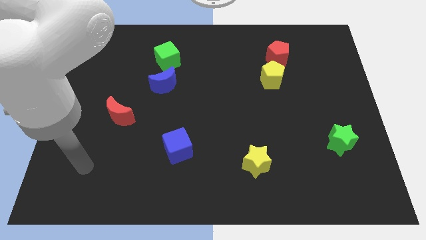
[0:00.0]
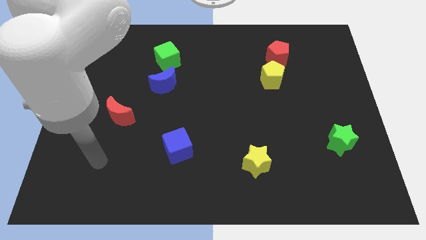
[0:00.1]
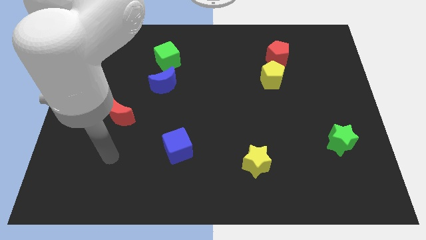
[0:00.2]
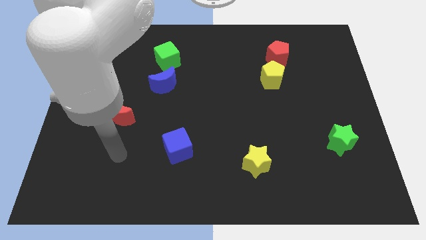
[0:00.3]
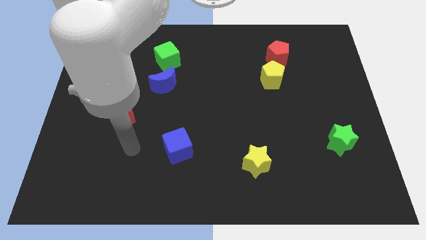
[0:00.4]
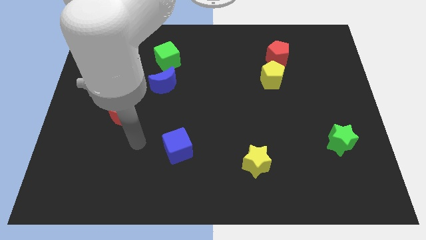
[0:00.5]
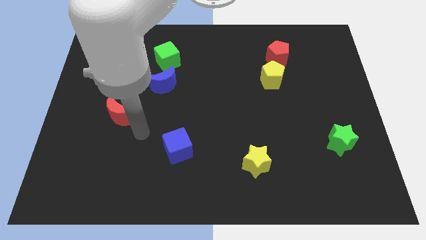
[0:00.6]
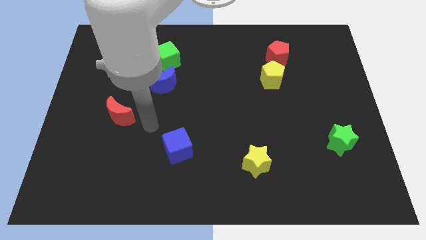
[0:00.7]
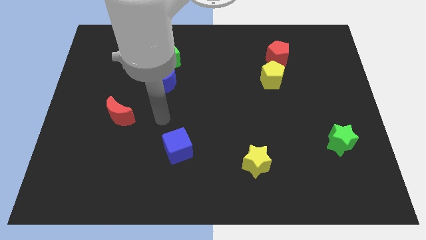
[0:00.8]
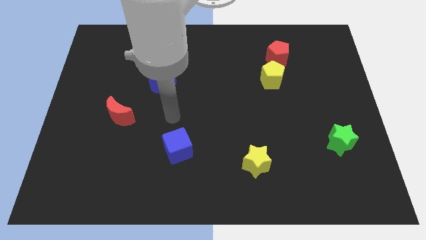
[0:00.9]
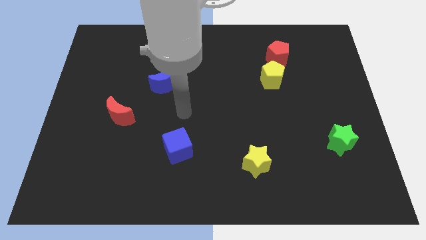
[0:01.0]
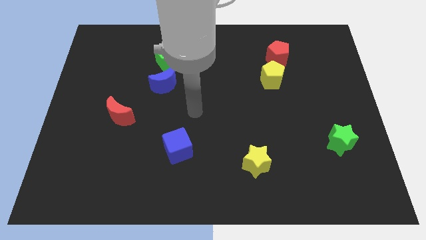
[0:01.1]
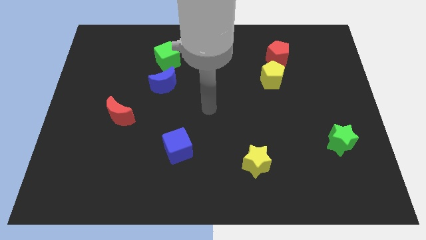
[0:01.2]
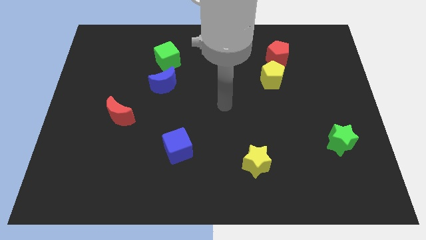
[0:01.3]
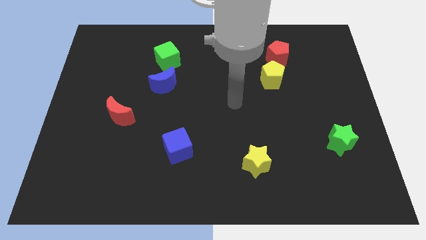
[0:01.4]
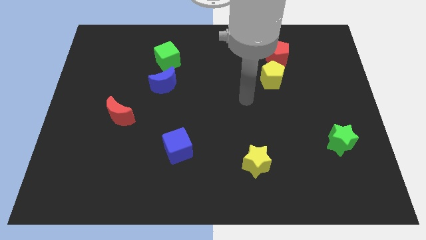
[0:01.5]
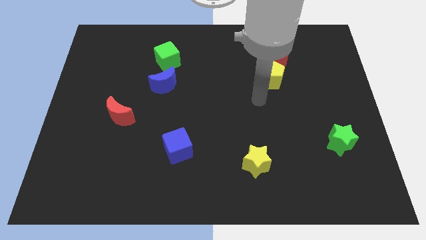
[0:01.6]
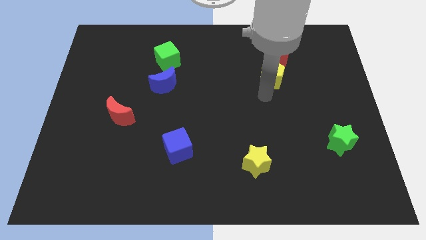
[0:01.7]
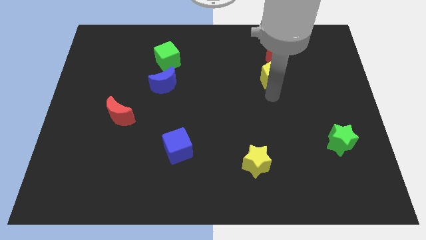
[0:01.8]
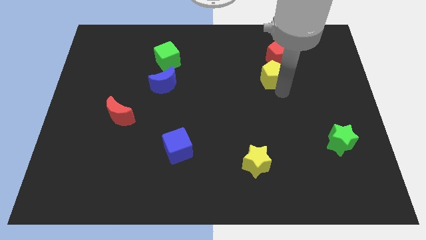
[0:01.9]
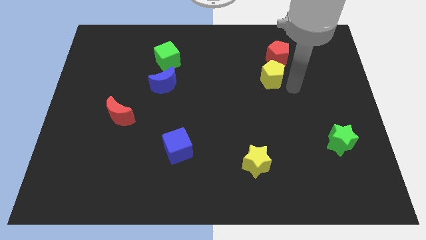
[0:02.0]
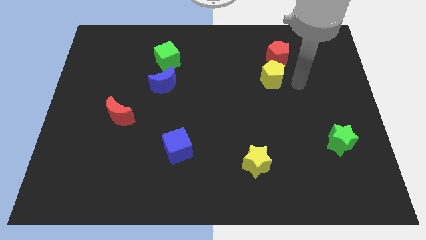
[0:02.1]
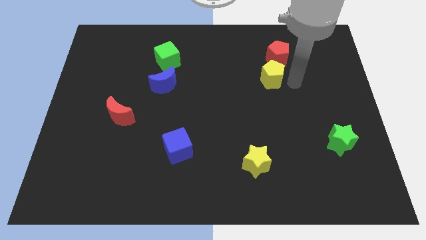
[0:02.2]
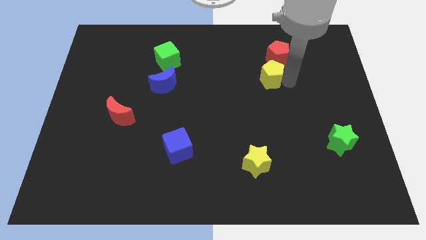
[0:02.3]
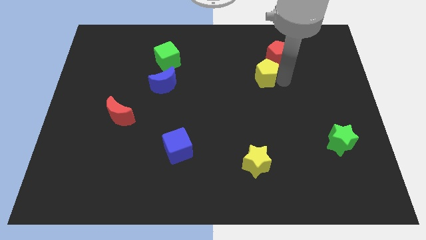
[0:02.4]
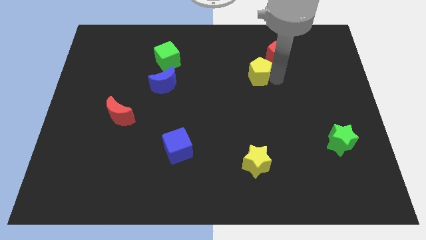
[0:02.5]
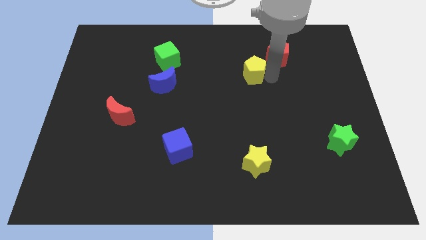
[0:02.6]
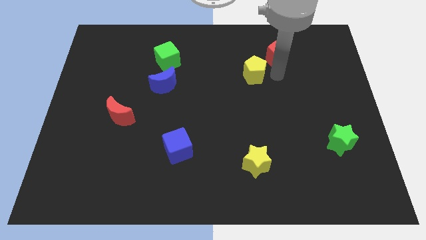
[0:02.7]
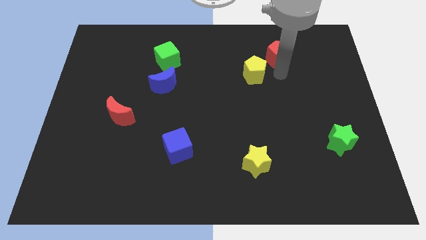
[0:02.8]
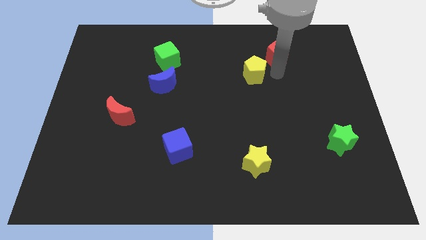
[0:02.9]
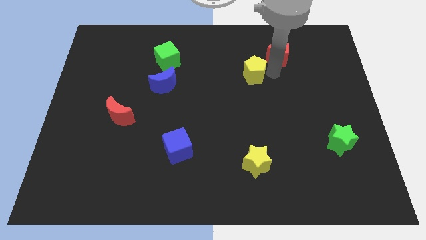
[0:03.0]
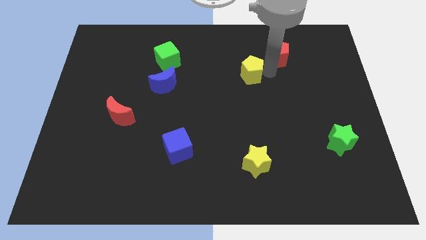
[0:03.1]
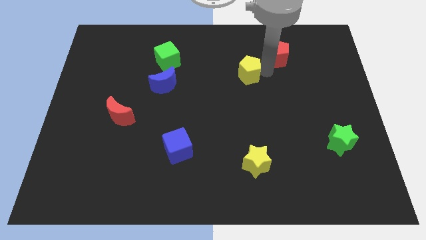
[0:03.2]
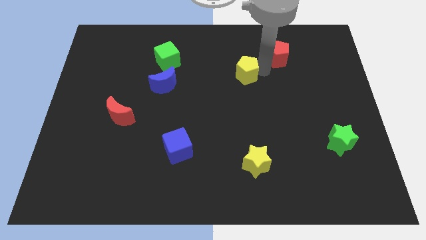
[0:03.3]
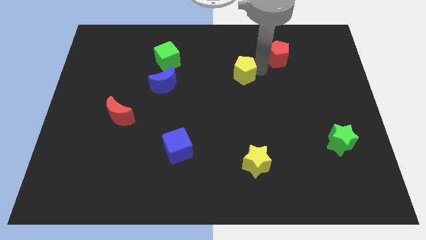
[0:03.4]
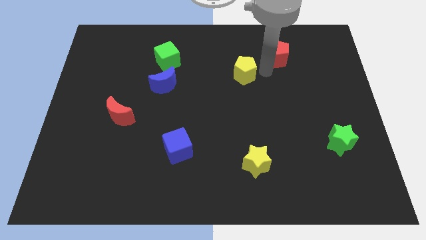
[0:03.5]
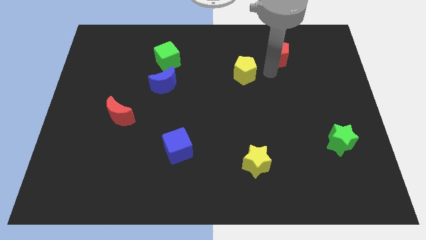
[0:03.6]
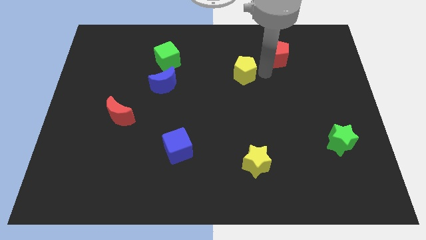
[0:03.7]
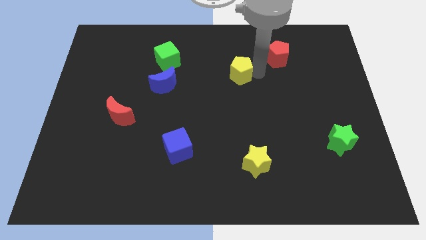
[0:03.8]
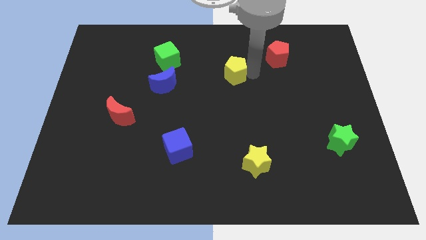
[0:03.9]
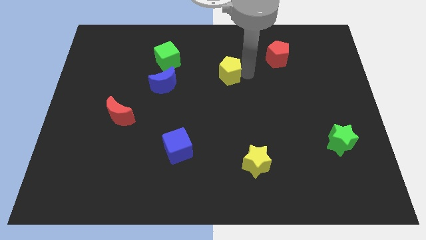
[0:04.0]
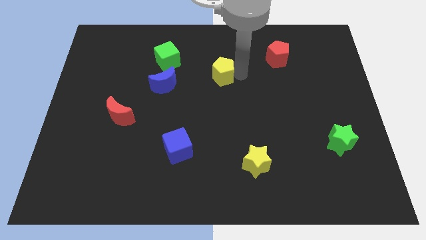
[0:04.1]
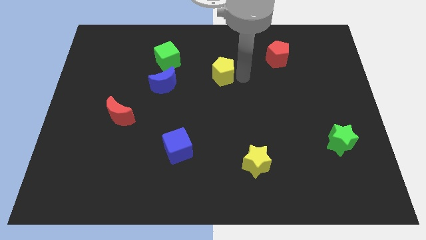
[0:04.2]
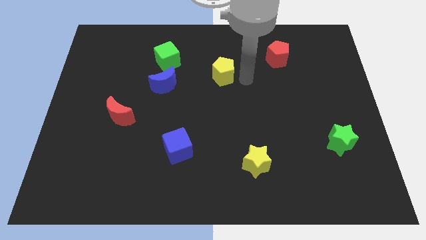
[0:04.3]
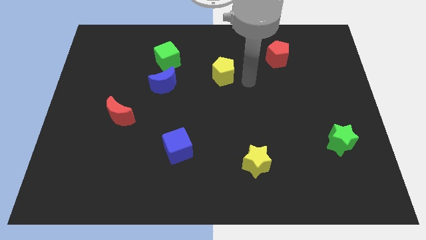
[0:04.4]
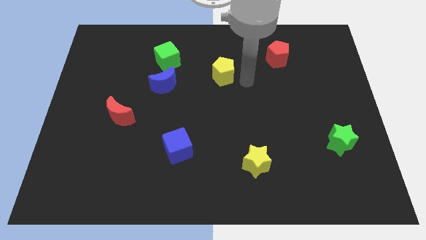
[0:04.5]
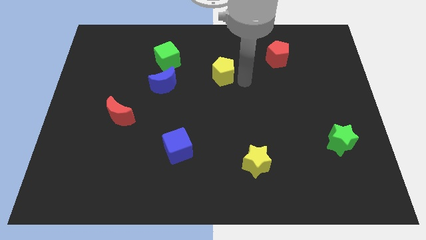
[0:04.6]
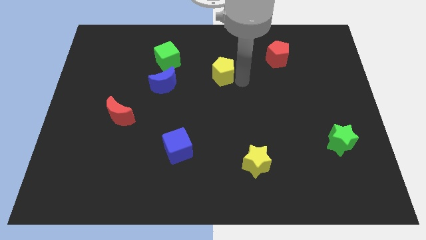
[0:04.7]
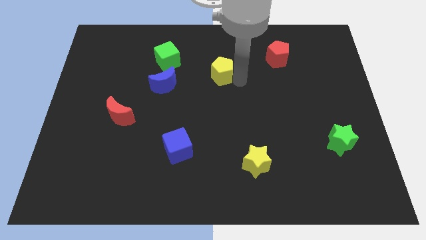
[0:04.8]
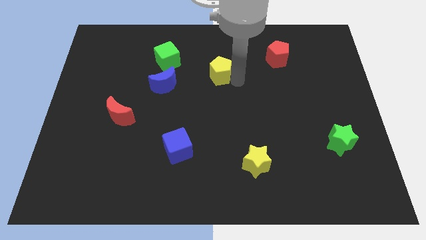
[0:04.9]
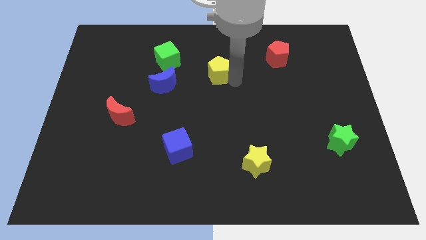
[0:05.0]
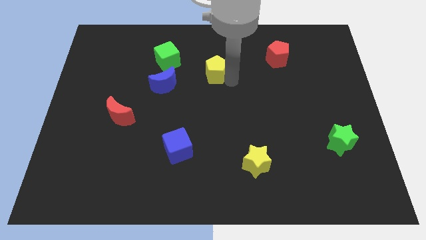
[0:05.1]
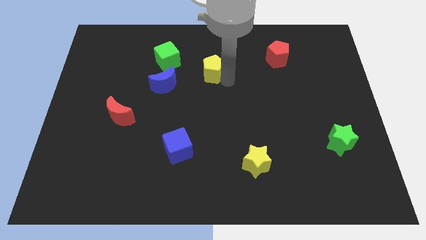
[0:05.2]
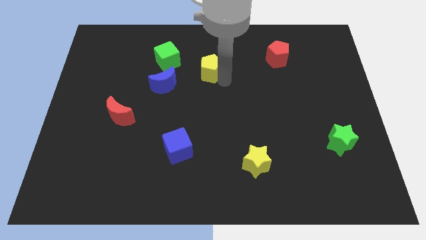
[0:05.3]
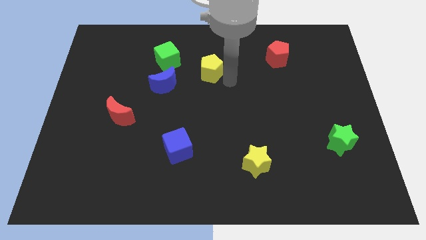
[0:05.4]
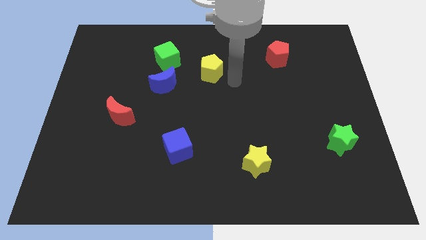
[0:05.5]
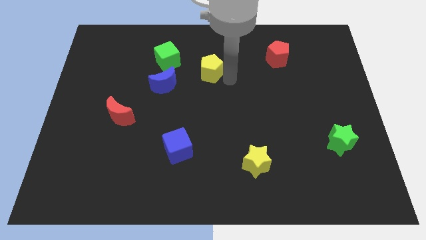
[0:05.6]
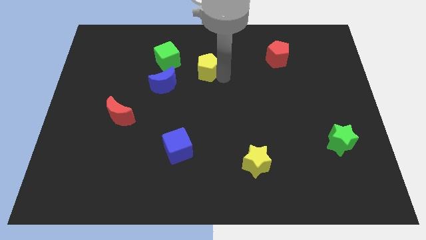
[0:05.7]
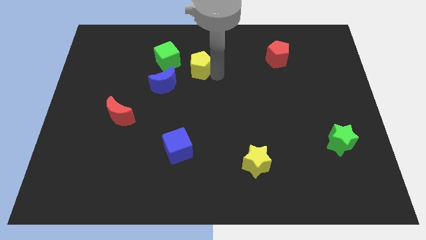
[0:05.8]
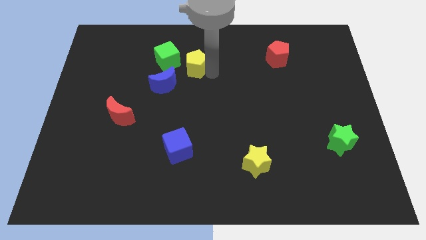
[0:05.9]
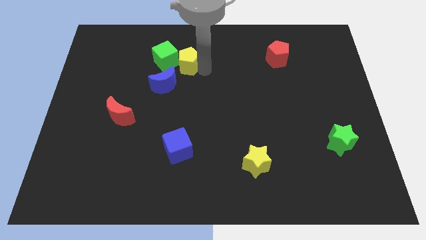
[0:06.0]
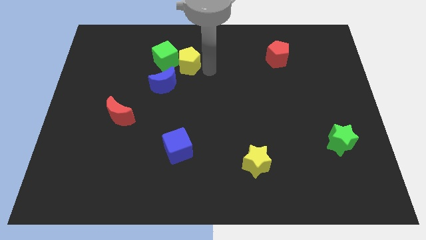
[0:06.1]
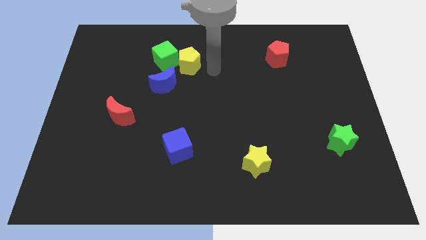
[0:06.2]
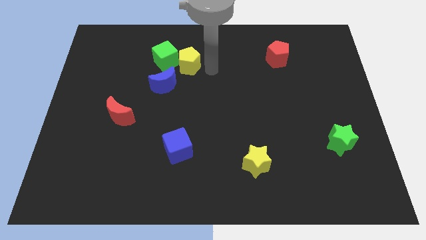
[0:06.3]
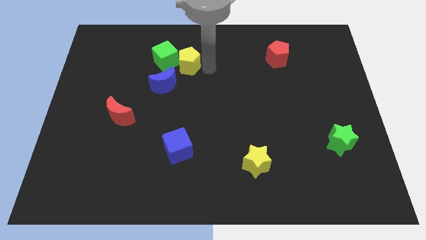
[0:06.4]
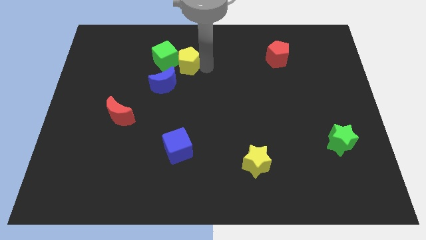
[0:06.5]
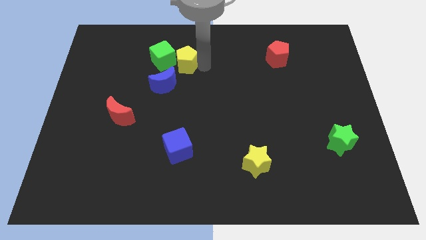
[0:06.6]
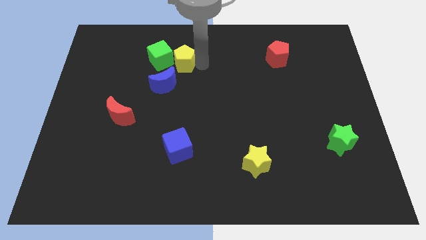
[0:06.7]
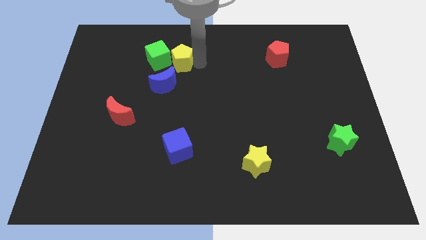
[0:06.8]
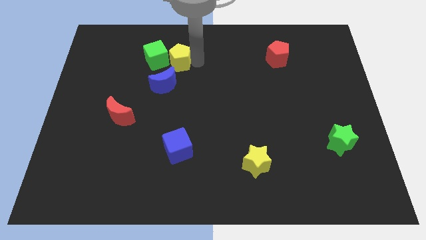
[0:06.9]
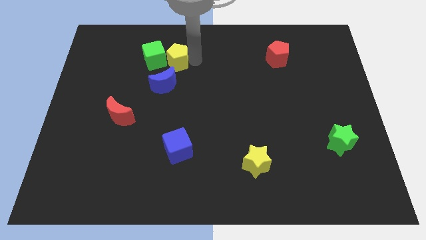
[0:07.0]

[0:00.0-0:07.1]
slide the yellow pentagon towards the green cube

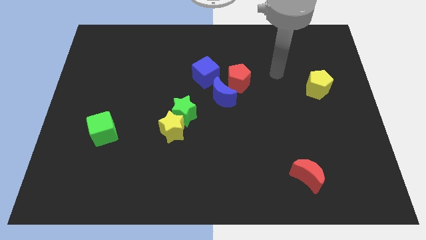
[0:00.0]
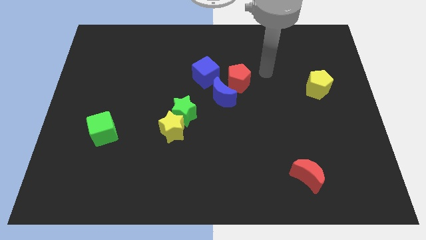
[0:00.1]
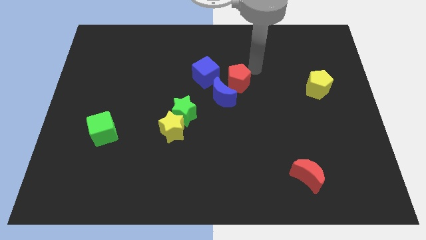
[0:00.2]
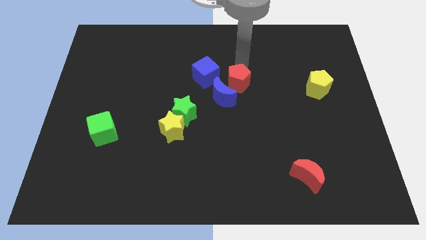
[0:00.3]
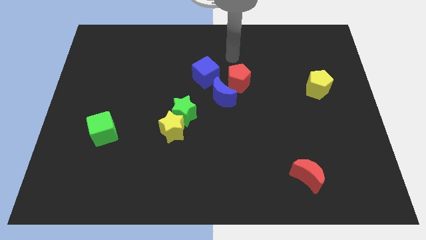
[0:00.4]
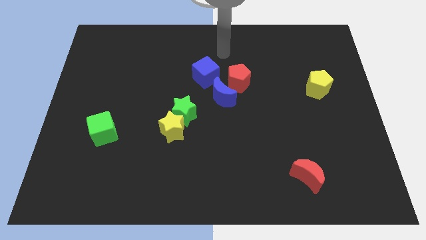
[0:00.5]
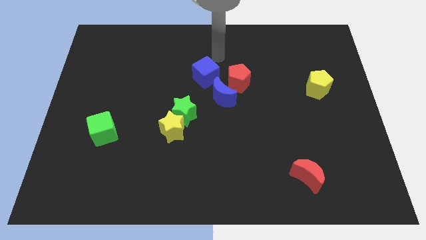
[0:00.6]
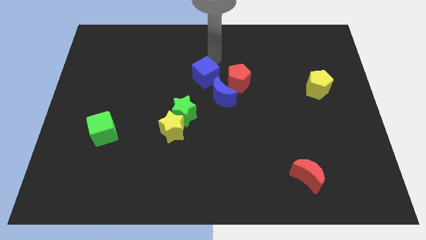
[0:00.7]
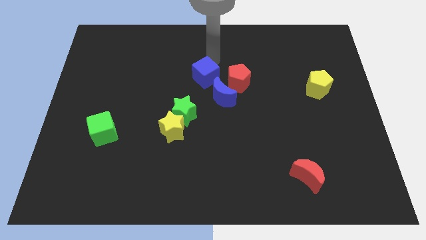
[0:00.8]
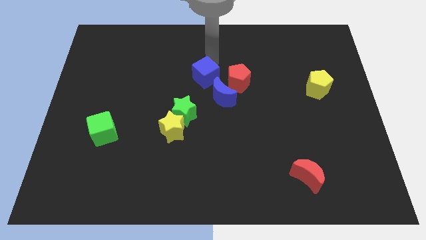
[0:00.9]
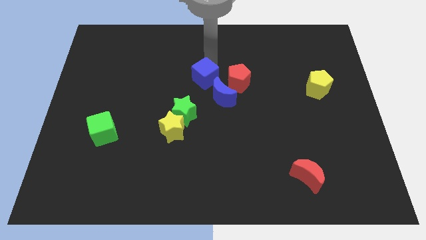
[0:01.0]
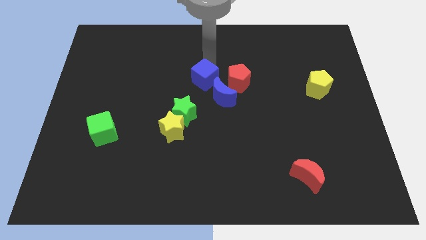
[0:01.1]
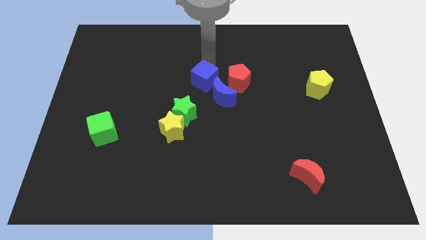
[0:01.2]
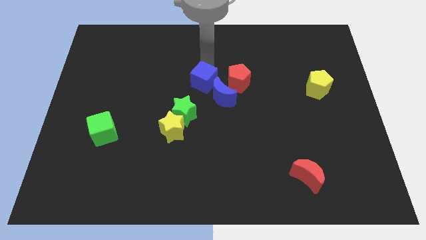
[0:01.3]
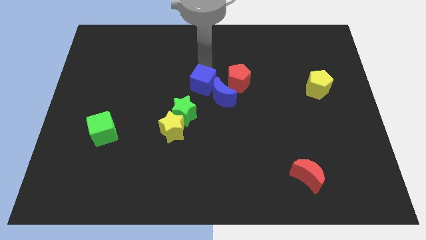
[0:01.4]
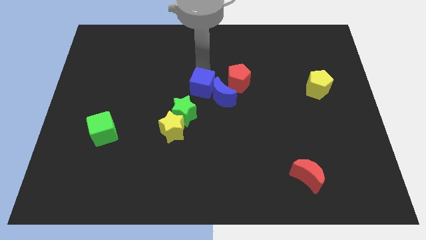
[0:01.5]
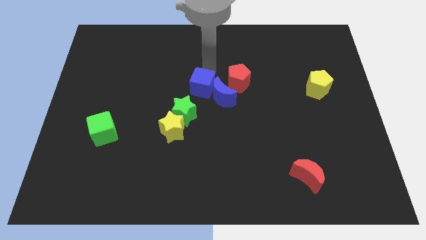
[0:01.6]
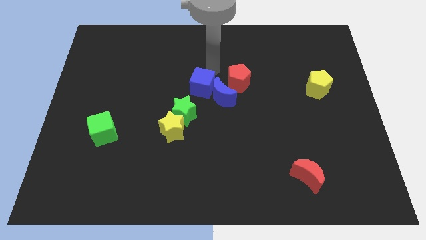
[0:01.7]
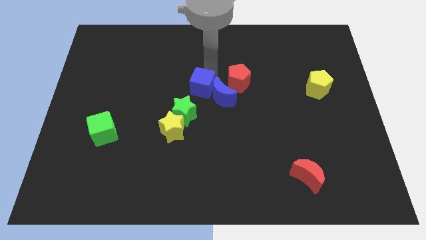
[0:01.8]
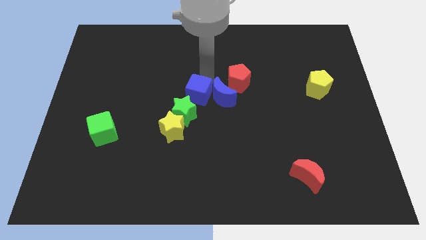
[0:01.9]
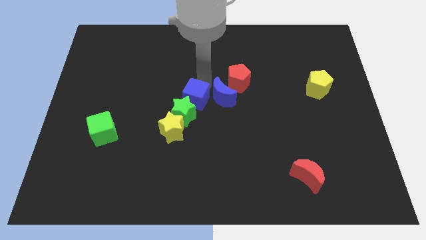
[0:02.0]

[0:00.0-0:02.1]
put the blue cube close to the green star
